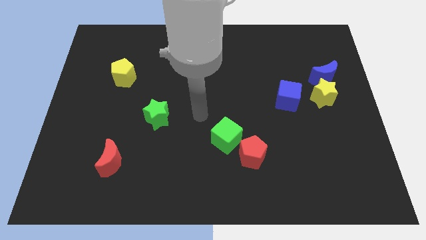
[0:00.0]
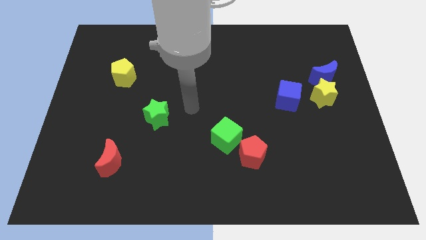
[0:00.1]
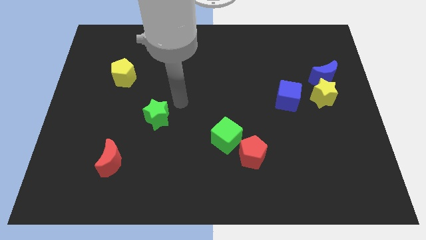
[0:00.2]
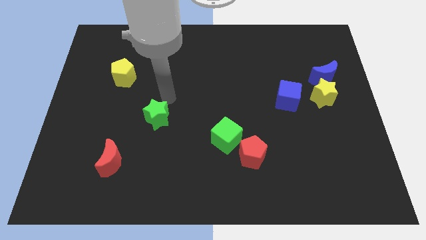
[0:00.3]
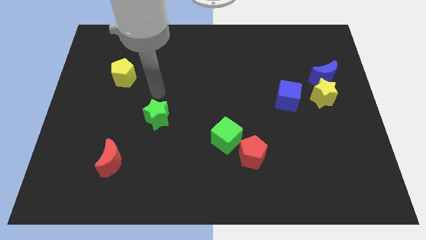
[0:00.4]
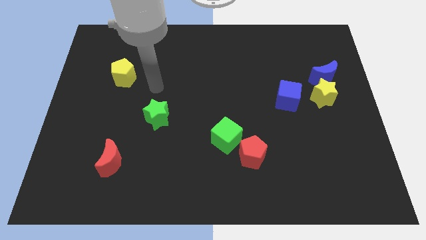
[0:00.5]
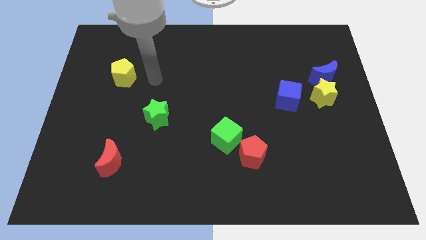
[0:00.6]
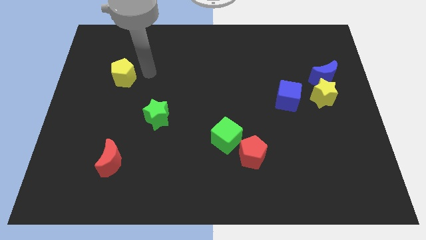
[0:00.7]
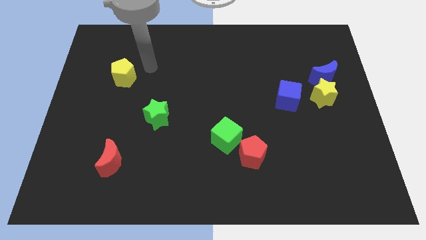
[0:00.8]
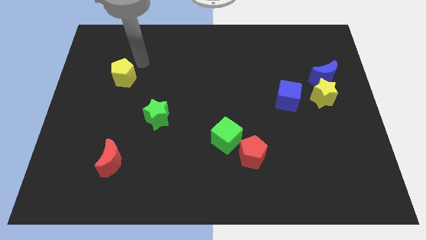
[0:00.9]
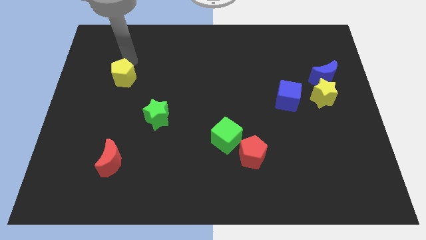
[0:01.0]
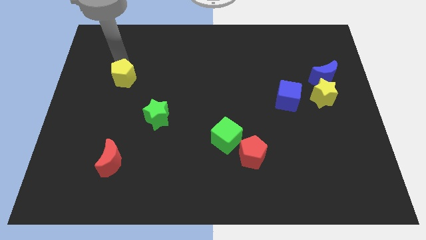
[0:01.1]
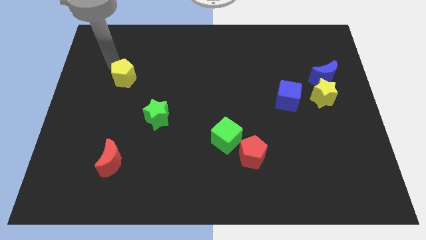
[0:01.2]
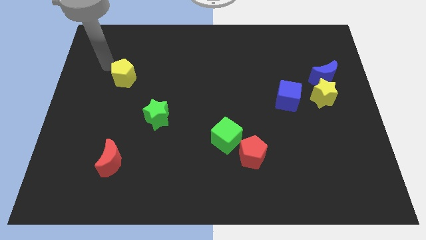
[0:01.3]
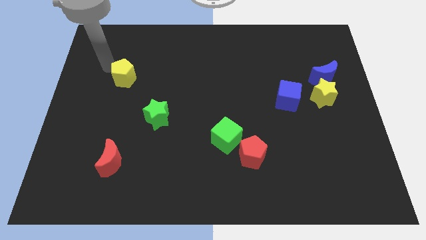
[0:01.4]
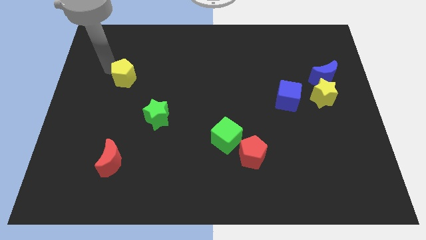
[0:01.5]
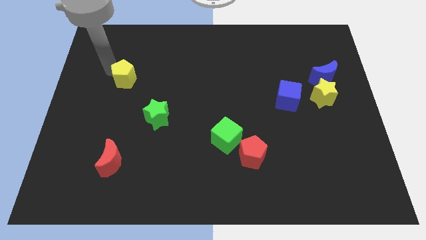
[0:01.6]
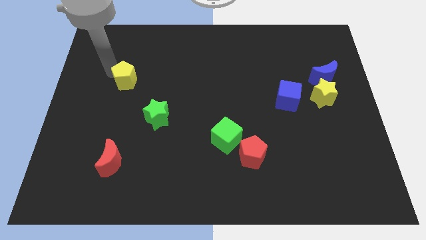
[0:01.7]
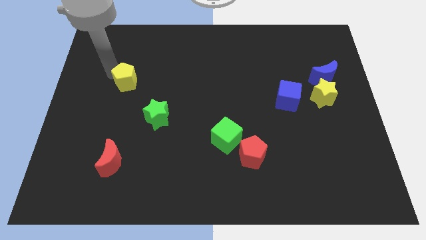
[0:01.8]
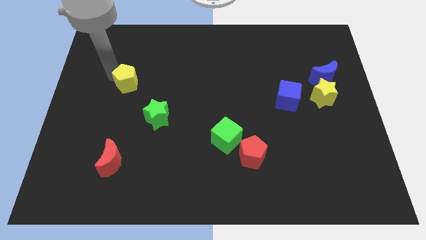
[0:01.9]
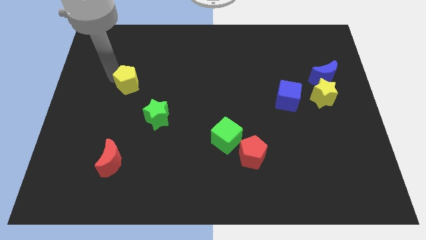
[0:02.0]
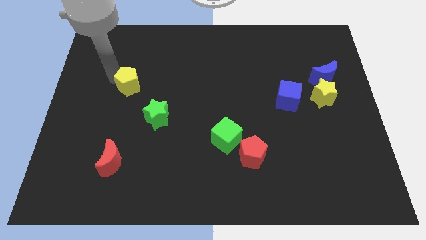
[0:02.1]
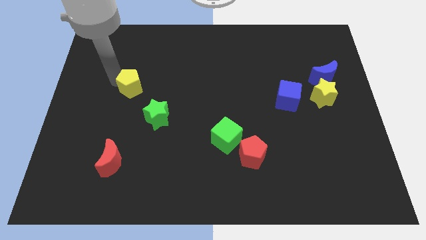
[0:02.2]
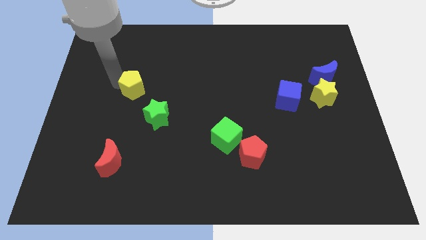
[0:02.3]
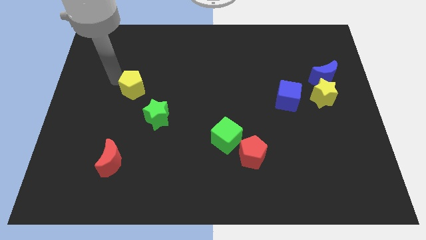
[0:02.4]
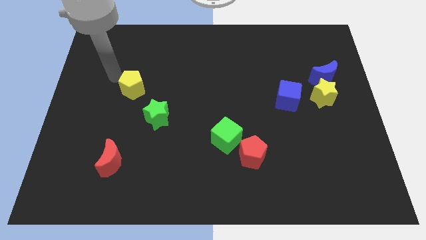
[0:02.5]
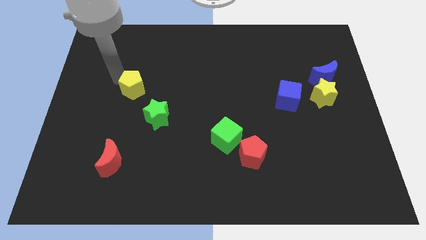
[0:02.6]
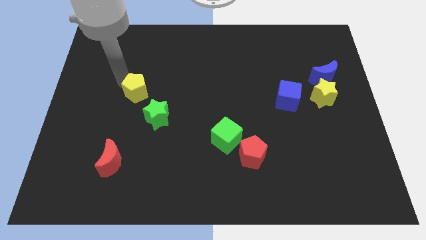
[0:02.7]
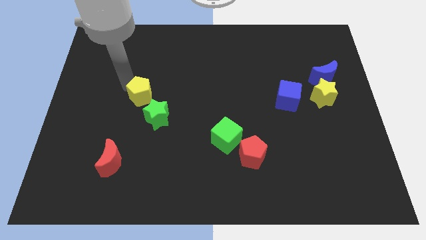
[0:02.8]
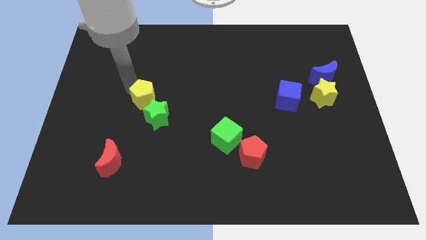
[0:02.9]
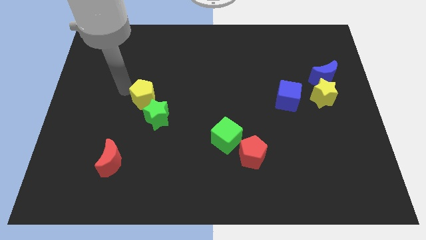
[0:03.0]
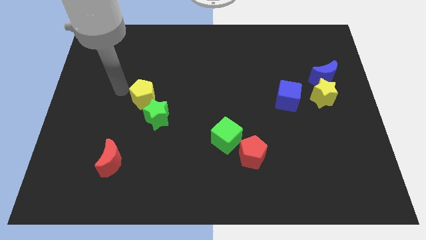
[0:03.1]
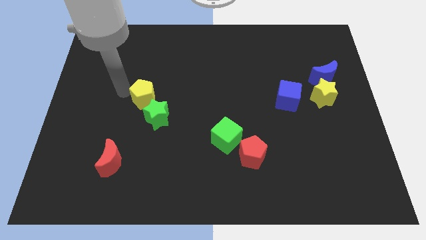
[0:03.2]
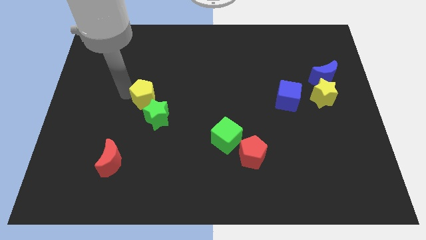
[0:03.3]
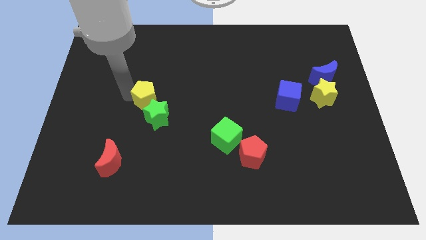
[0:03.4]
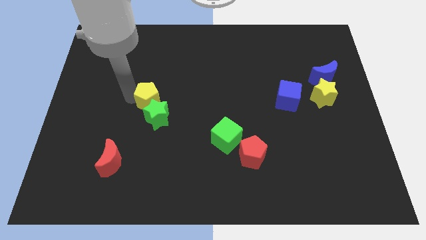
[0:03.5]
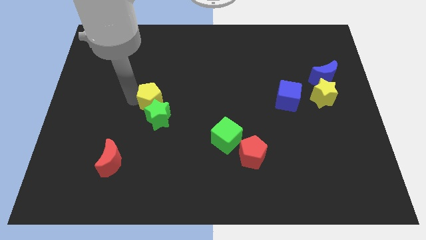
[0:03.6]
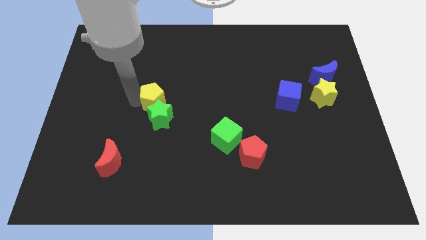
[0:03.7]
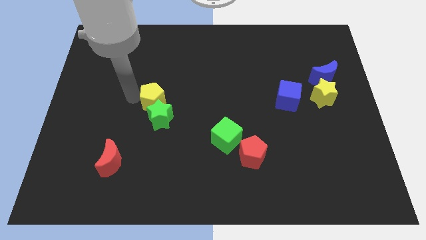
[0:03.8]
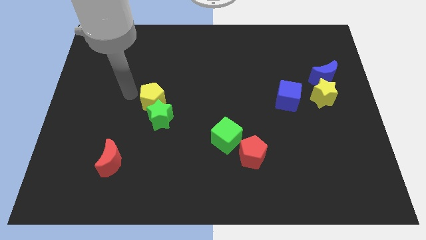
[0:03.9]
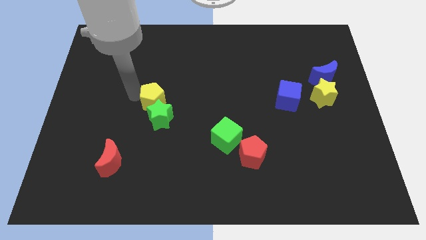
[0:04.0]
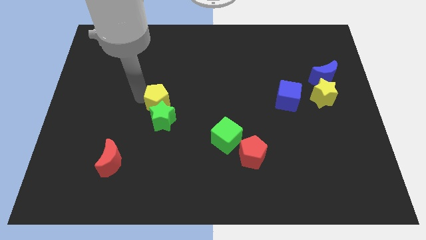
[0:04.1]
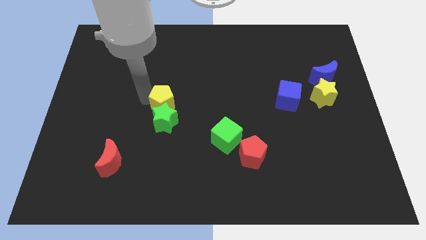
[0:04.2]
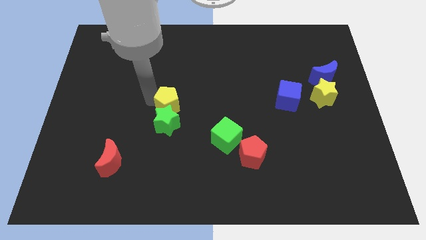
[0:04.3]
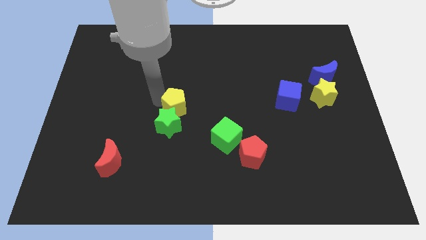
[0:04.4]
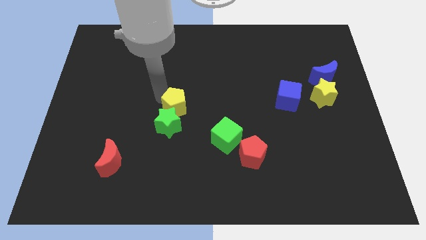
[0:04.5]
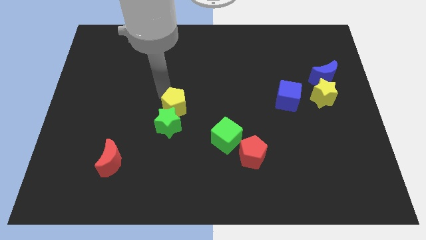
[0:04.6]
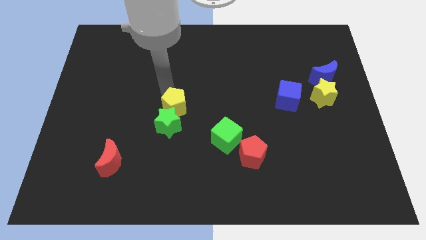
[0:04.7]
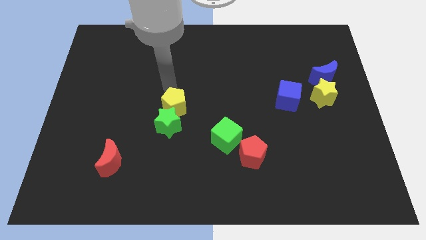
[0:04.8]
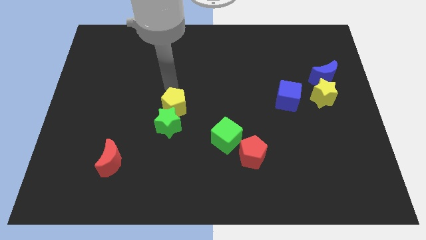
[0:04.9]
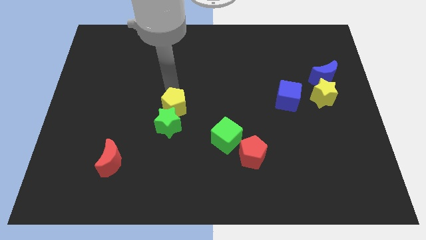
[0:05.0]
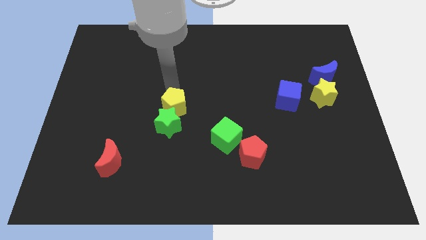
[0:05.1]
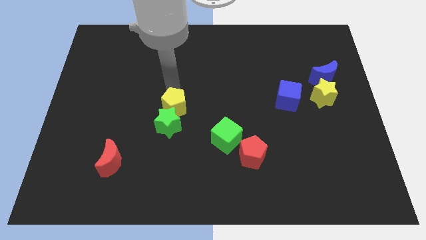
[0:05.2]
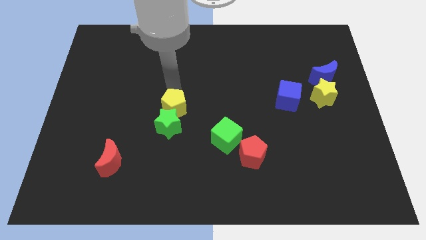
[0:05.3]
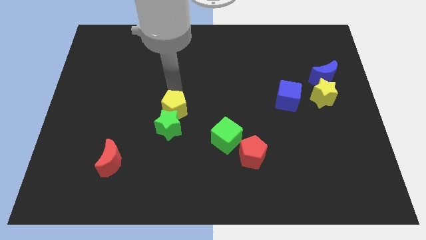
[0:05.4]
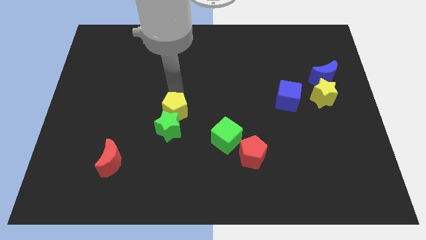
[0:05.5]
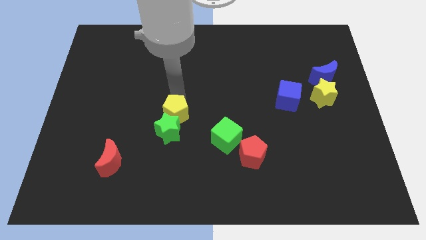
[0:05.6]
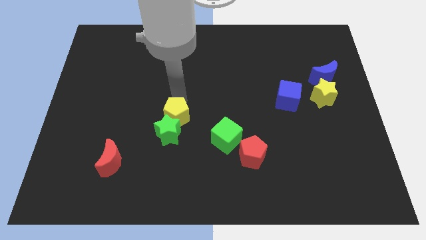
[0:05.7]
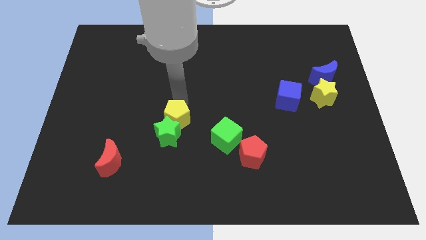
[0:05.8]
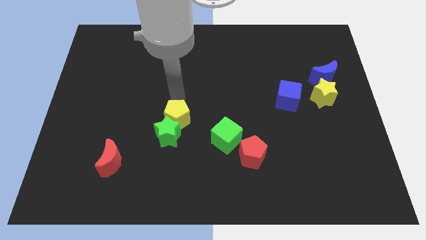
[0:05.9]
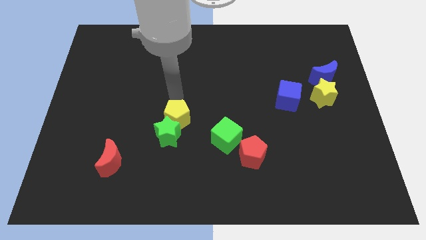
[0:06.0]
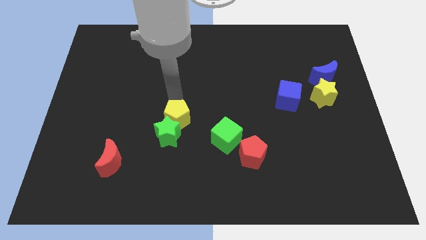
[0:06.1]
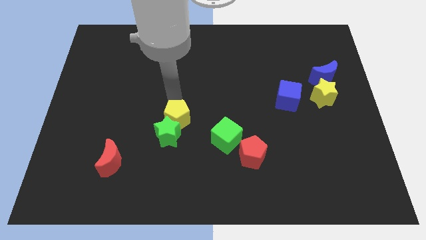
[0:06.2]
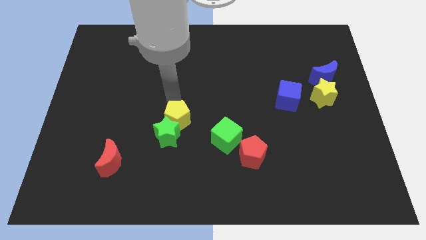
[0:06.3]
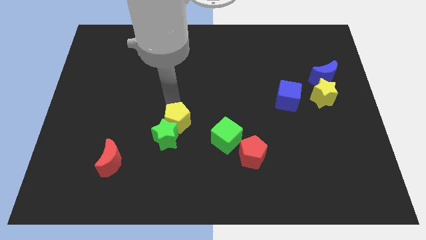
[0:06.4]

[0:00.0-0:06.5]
slide the yellow pentagon just left of the green cube

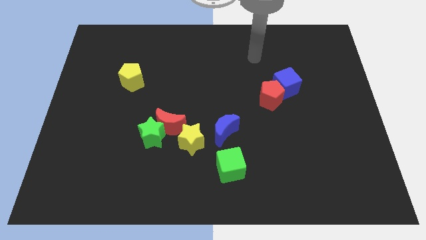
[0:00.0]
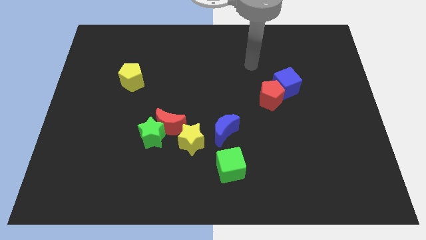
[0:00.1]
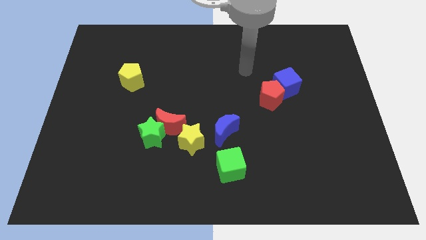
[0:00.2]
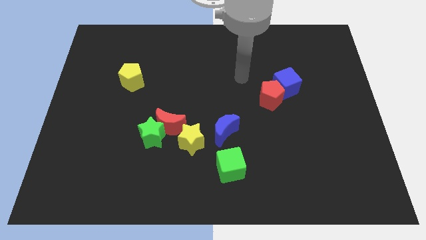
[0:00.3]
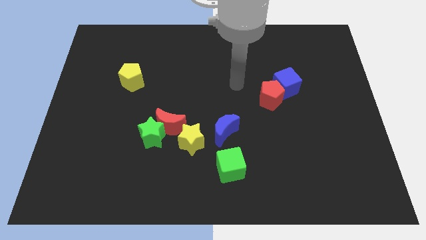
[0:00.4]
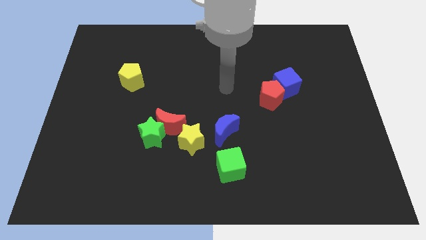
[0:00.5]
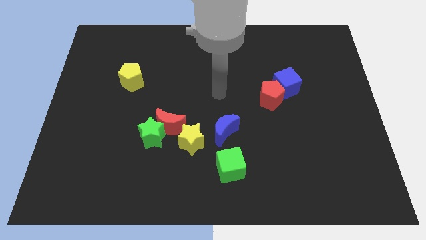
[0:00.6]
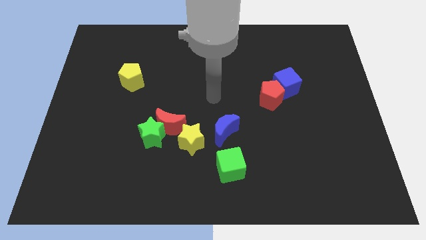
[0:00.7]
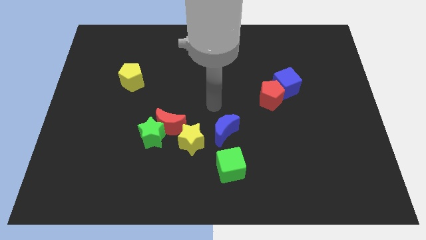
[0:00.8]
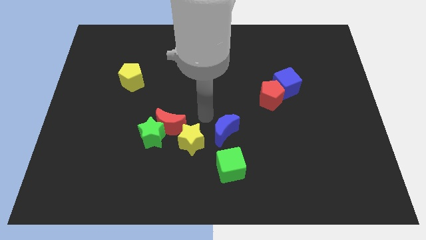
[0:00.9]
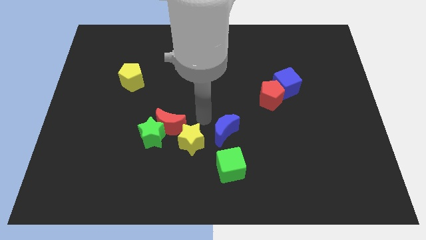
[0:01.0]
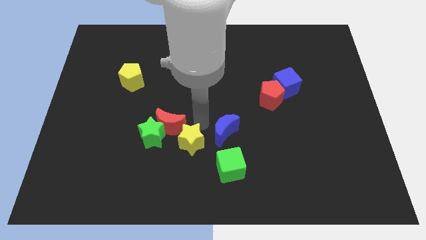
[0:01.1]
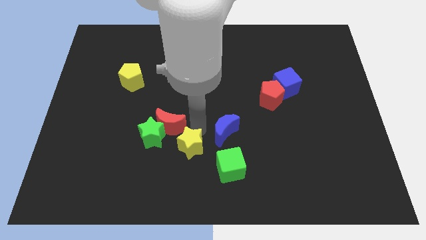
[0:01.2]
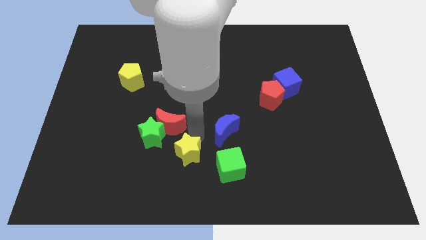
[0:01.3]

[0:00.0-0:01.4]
push the yellow star to the left of the green cube
